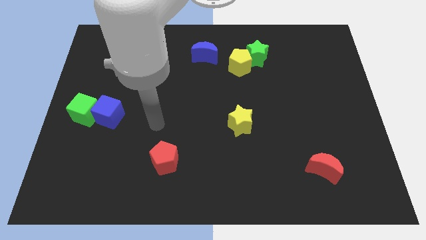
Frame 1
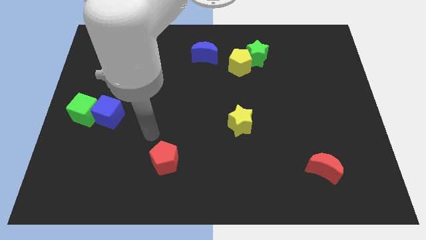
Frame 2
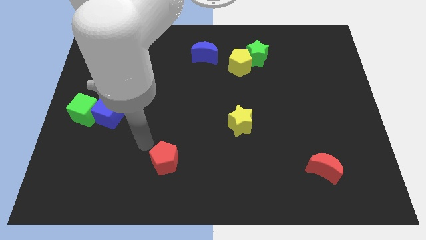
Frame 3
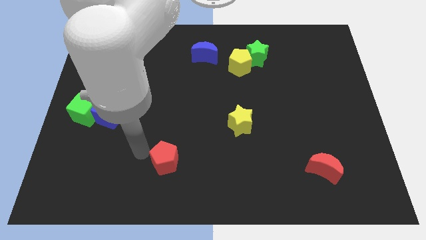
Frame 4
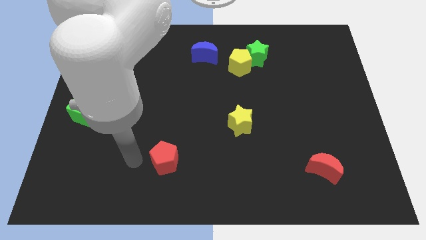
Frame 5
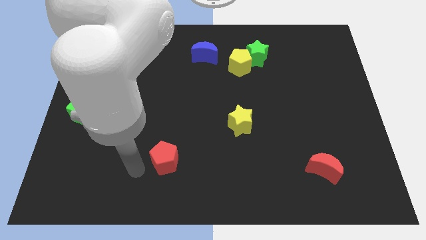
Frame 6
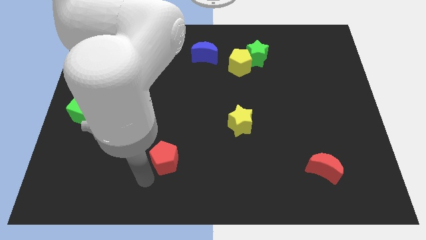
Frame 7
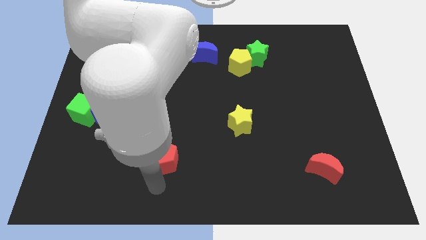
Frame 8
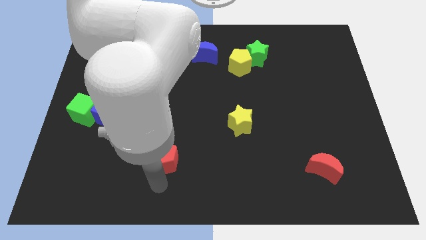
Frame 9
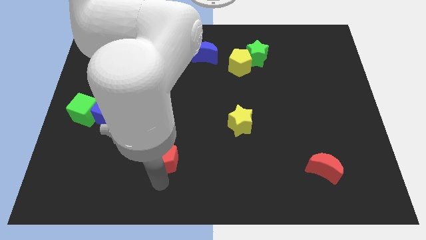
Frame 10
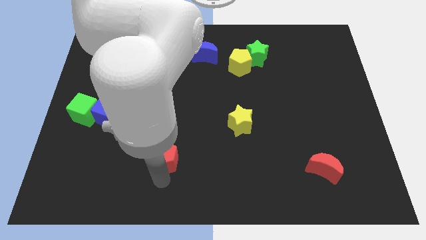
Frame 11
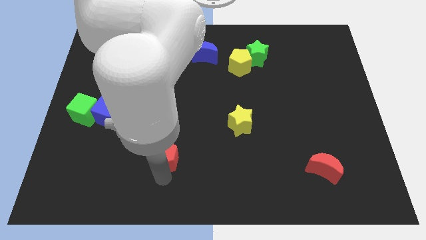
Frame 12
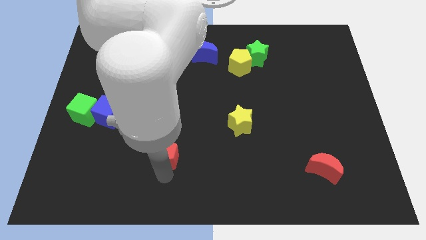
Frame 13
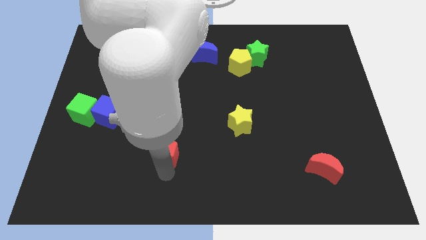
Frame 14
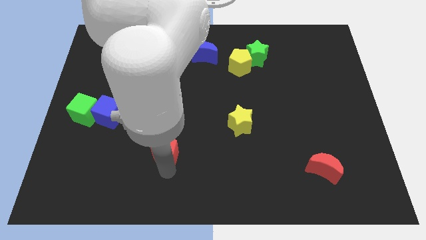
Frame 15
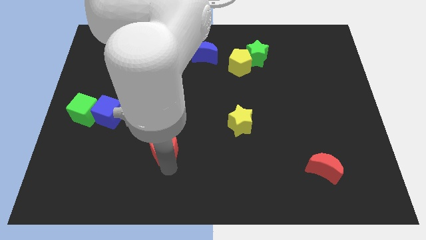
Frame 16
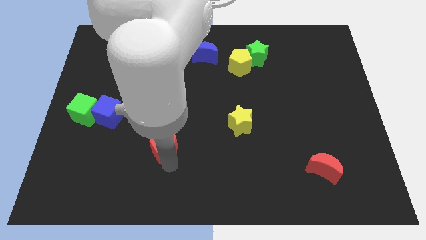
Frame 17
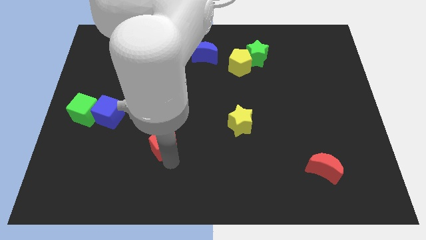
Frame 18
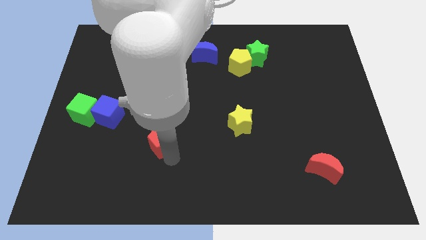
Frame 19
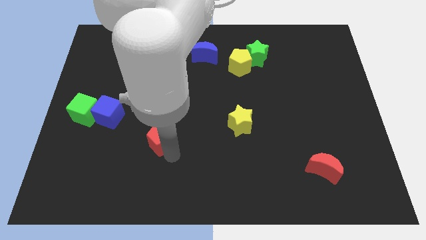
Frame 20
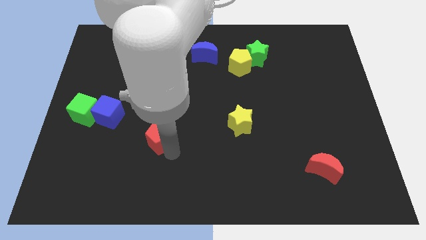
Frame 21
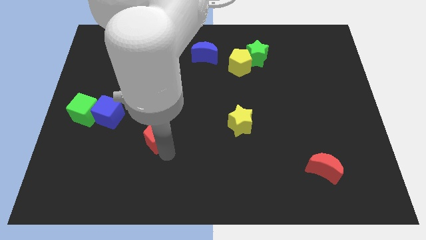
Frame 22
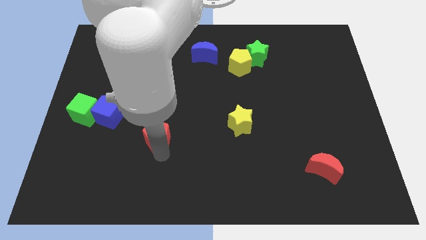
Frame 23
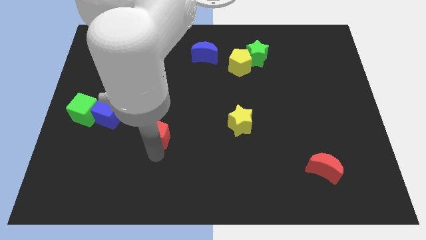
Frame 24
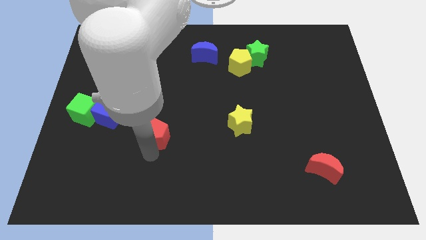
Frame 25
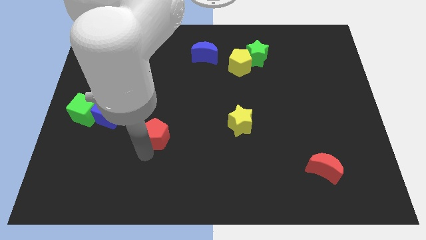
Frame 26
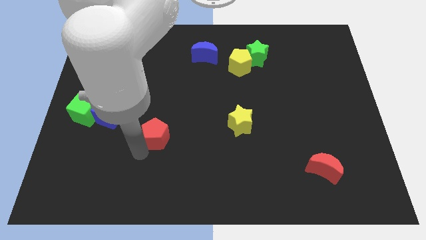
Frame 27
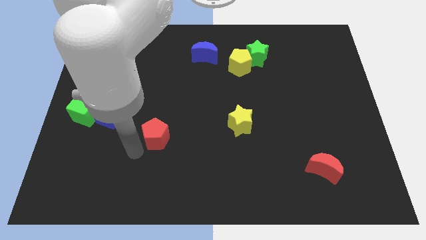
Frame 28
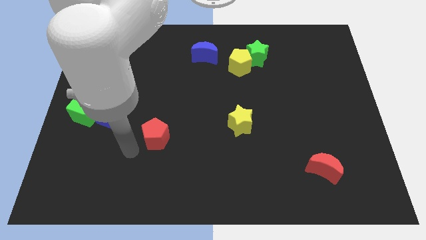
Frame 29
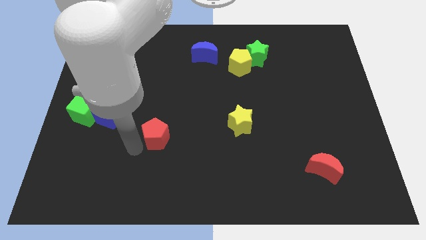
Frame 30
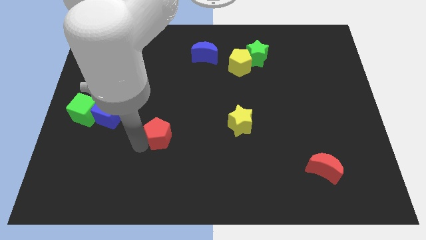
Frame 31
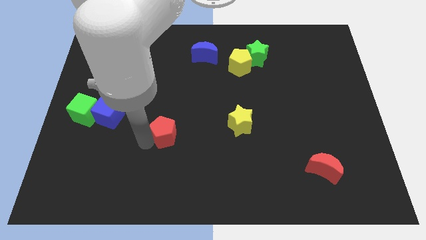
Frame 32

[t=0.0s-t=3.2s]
slide the red pentagon up a little

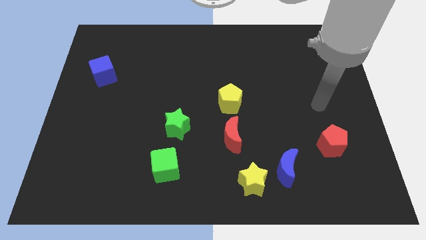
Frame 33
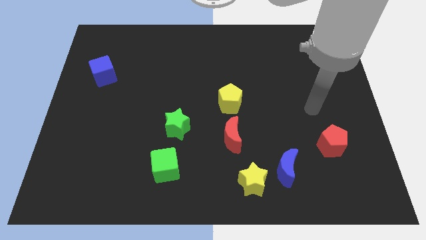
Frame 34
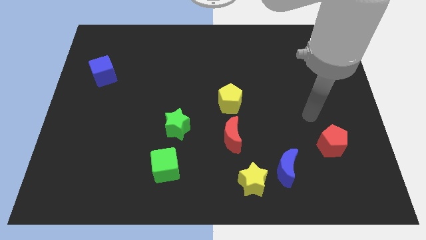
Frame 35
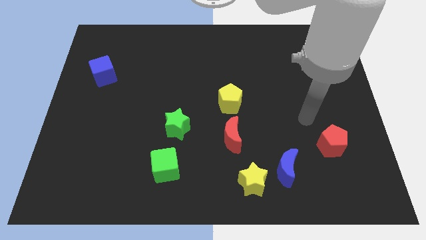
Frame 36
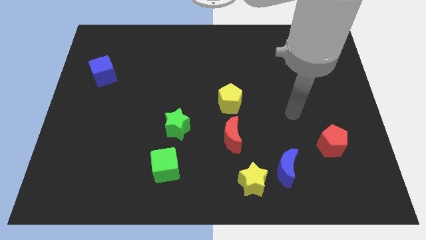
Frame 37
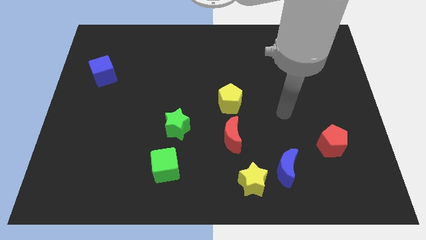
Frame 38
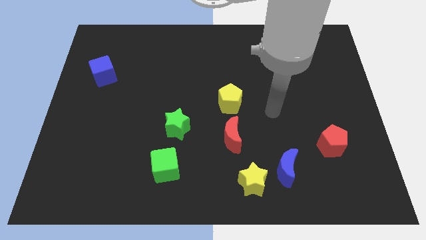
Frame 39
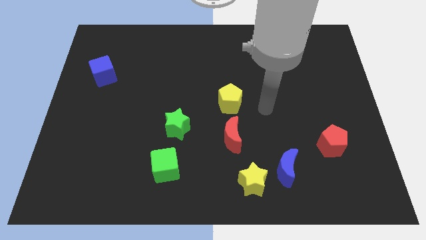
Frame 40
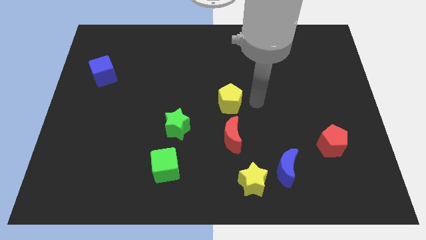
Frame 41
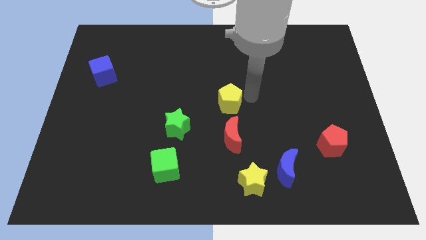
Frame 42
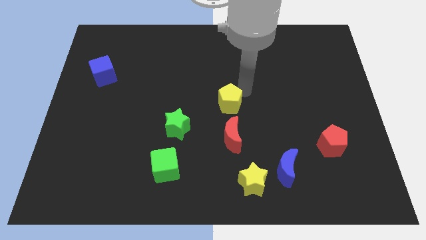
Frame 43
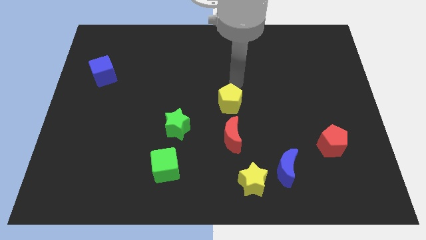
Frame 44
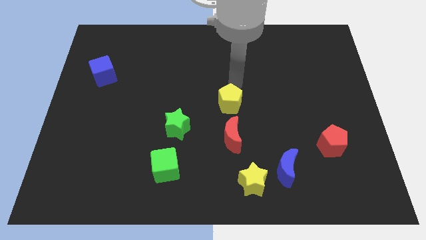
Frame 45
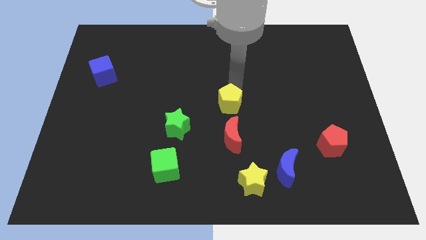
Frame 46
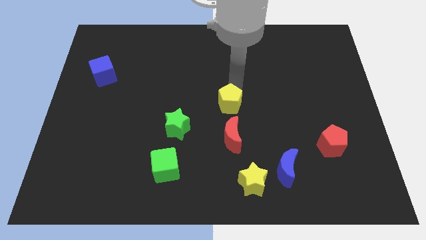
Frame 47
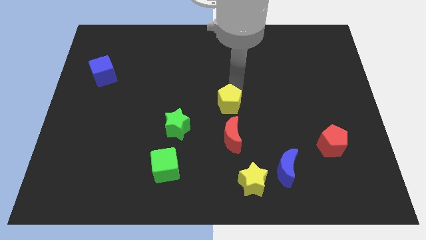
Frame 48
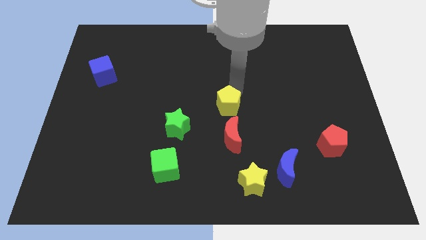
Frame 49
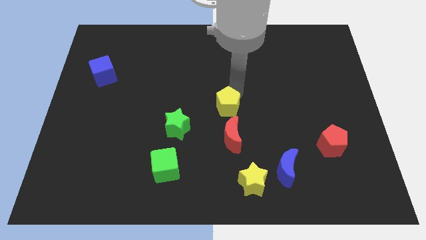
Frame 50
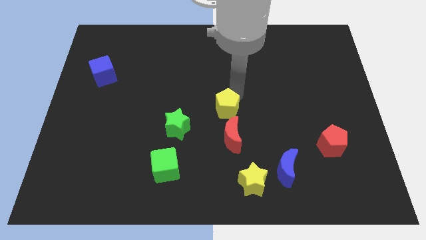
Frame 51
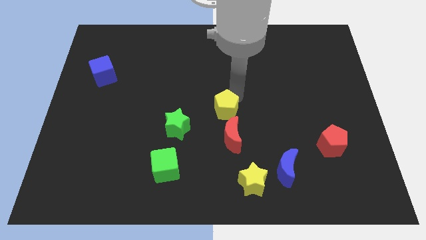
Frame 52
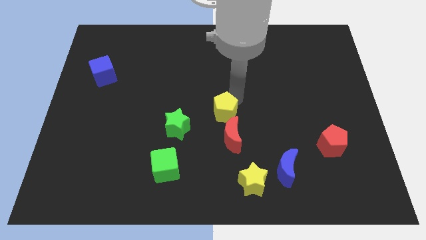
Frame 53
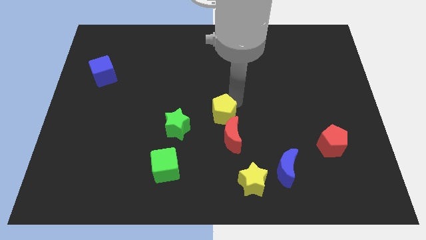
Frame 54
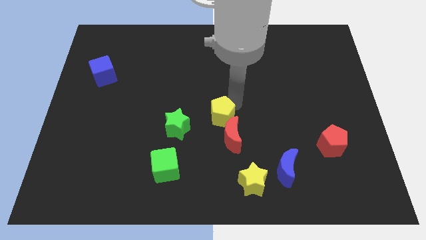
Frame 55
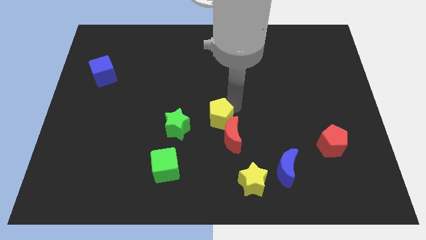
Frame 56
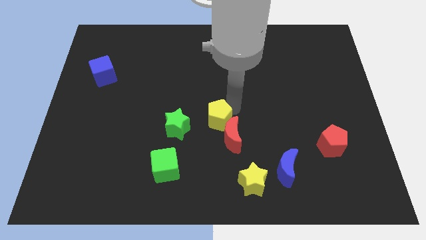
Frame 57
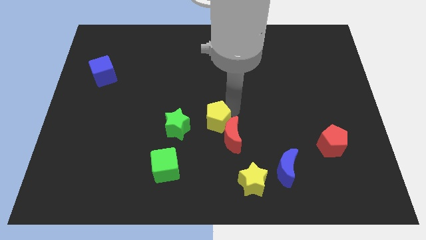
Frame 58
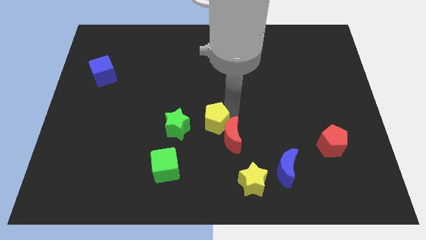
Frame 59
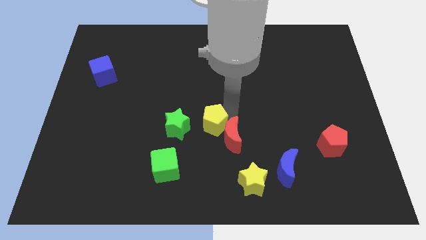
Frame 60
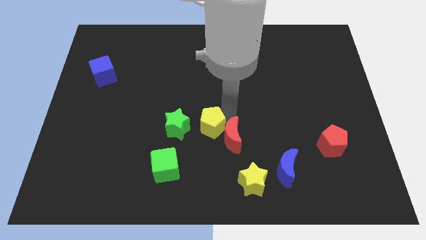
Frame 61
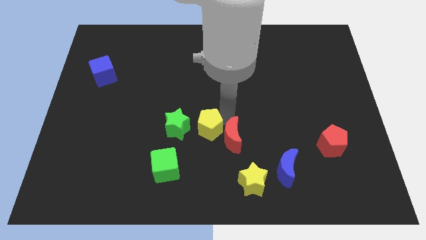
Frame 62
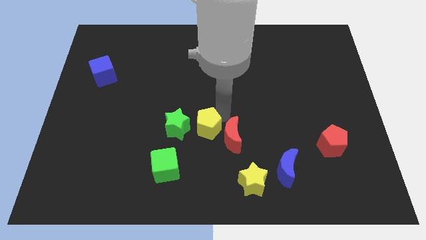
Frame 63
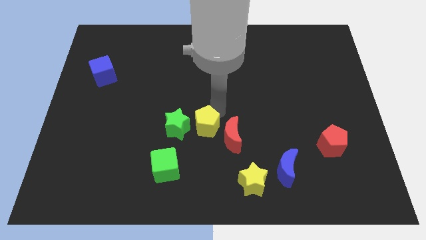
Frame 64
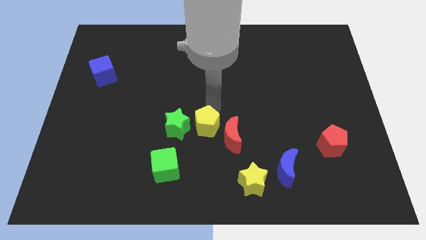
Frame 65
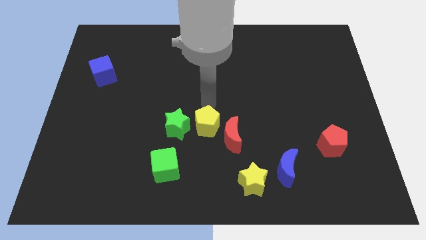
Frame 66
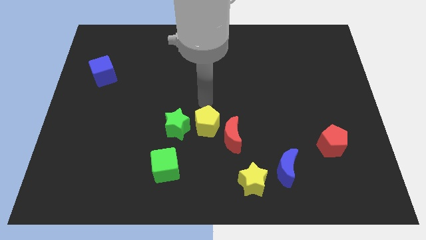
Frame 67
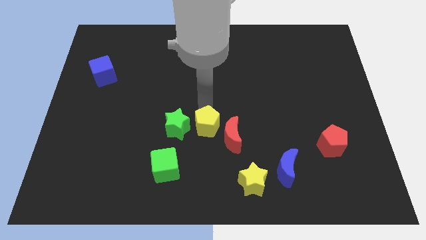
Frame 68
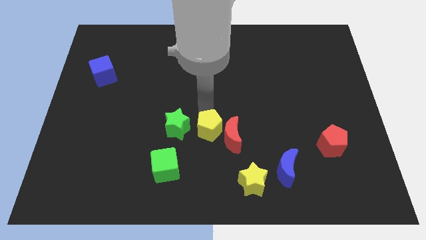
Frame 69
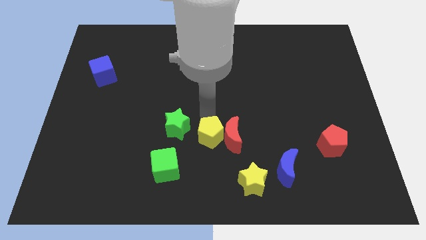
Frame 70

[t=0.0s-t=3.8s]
move the yellow pentagon downwards a little bit

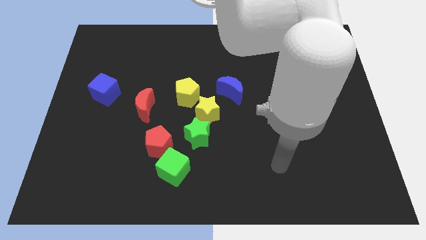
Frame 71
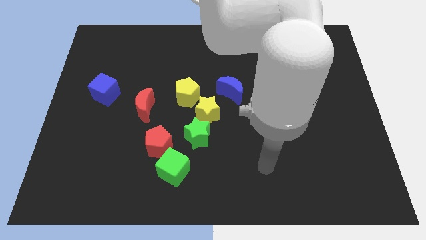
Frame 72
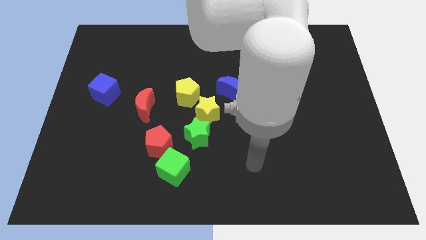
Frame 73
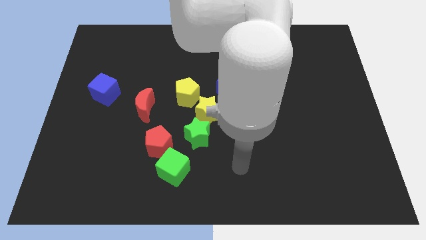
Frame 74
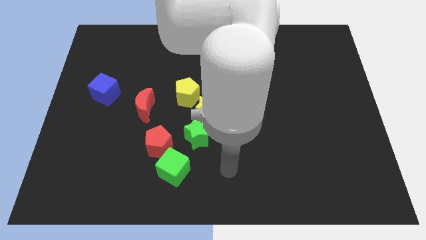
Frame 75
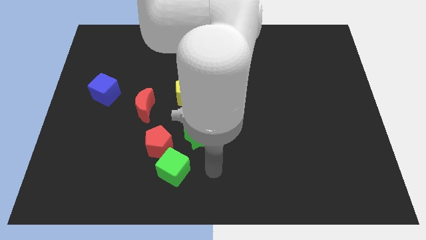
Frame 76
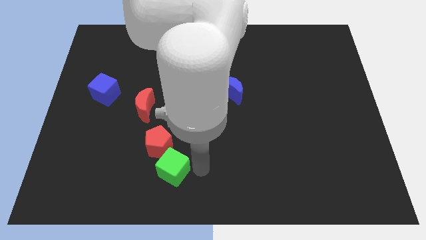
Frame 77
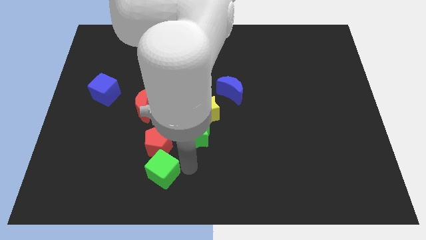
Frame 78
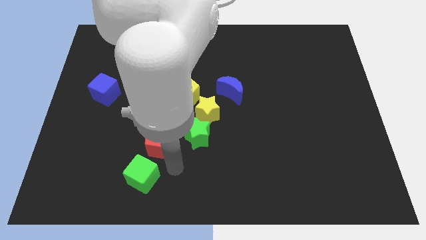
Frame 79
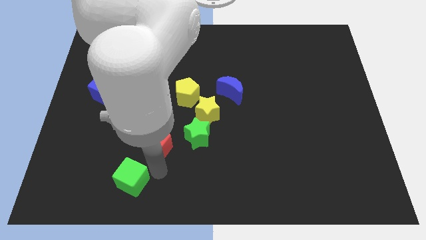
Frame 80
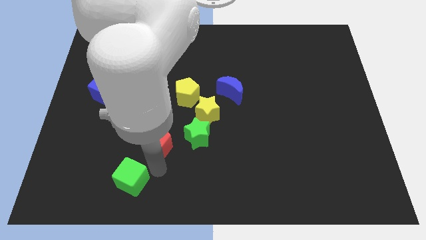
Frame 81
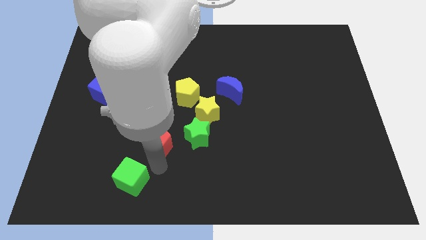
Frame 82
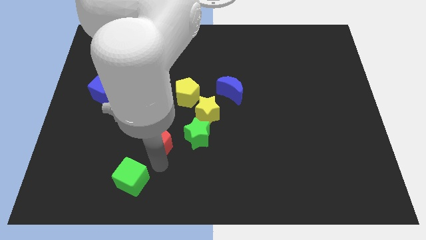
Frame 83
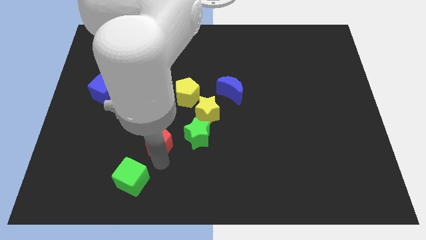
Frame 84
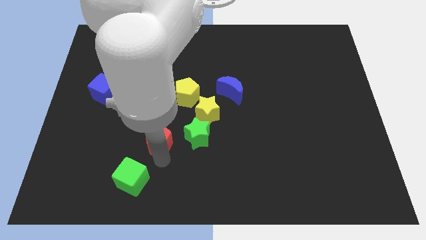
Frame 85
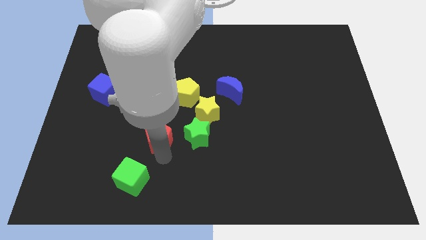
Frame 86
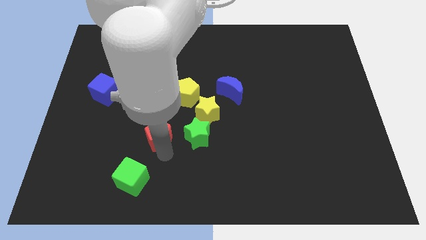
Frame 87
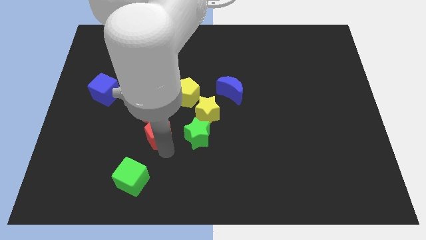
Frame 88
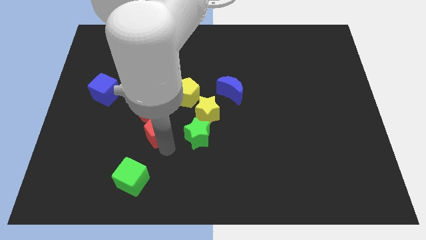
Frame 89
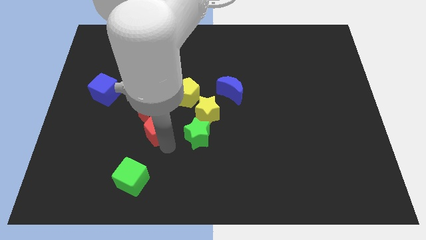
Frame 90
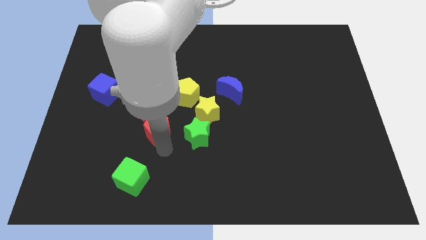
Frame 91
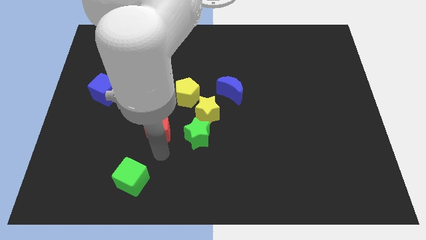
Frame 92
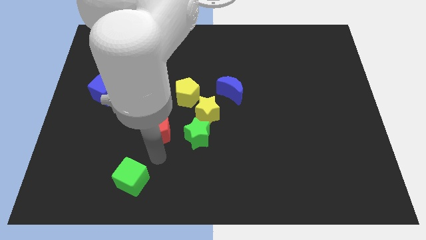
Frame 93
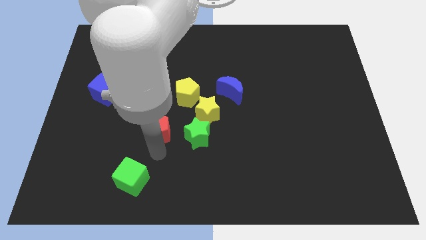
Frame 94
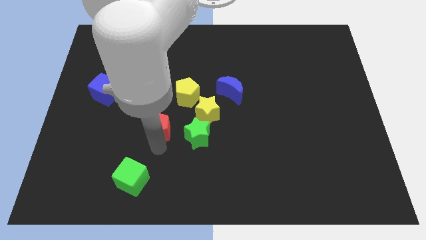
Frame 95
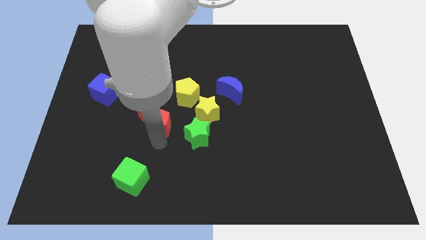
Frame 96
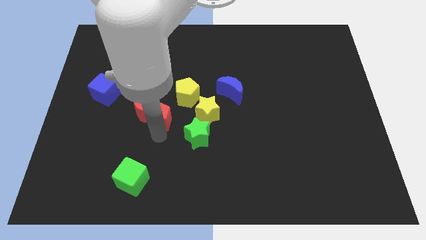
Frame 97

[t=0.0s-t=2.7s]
push the red pentagon up a little bit
